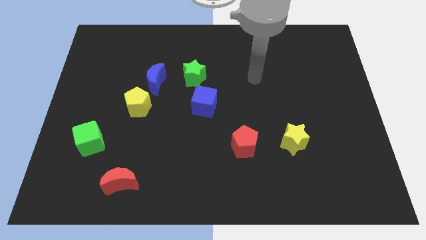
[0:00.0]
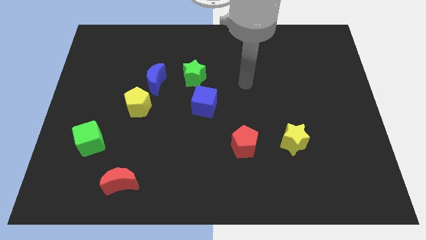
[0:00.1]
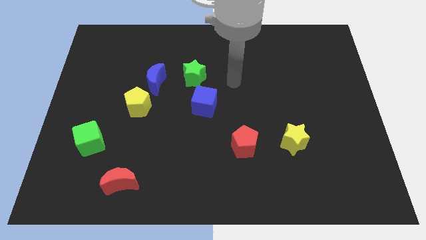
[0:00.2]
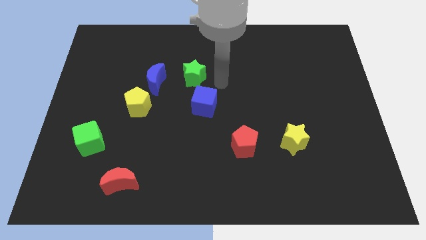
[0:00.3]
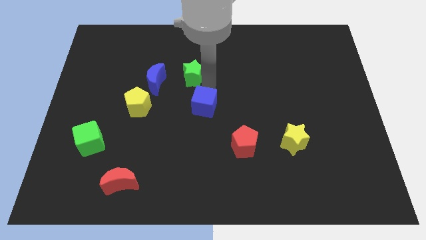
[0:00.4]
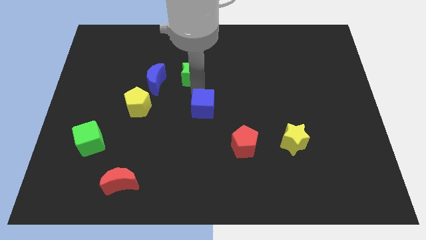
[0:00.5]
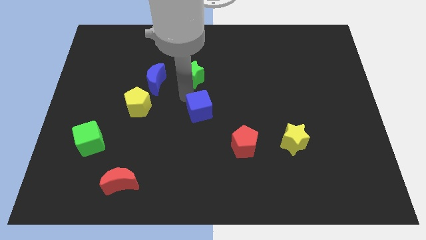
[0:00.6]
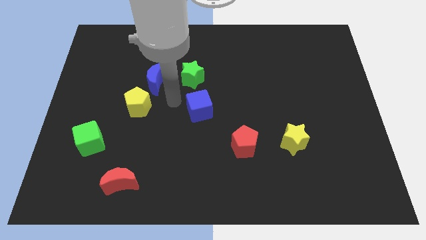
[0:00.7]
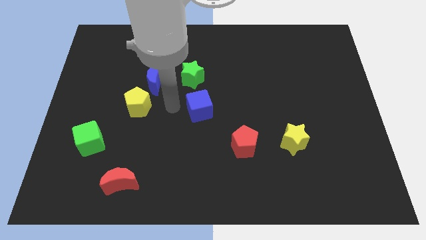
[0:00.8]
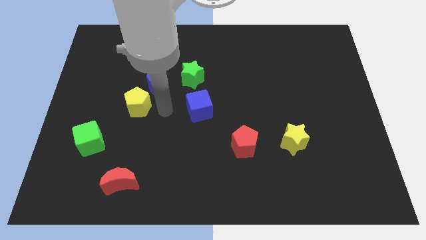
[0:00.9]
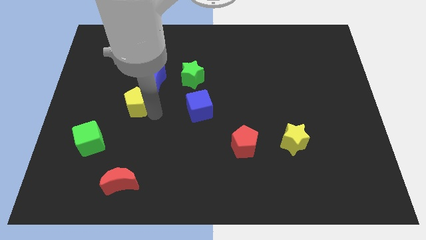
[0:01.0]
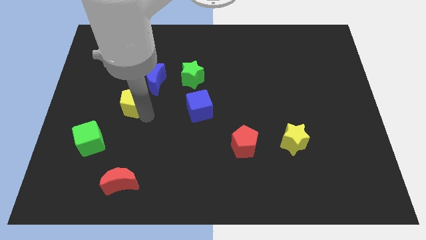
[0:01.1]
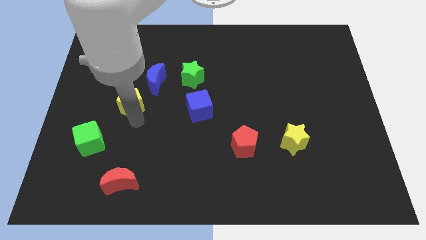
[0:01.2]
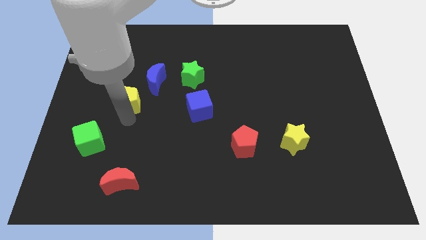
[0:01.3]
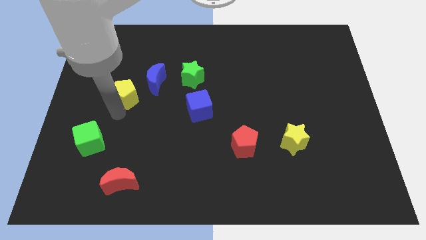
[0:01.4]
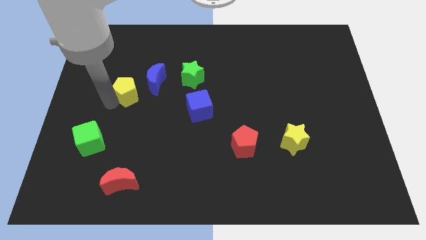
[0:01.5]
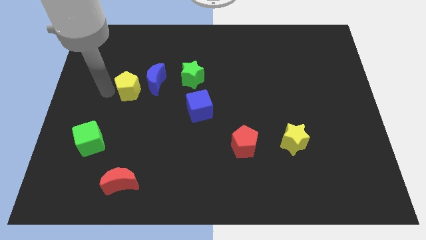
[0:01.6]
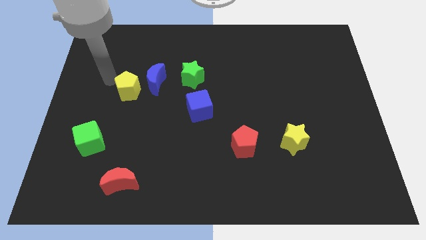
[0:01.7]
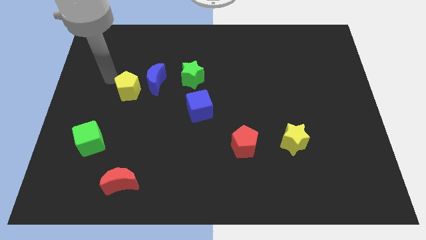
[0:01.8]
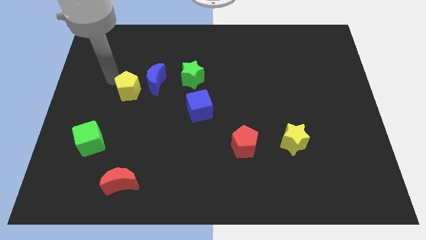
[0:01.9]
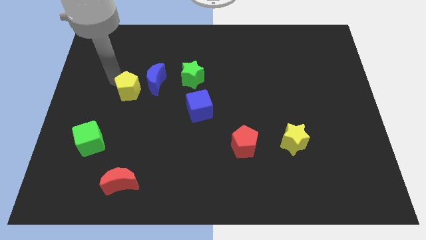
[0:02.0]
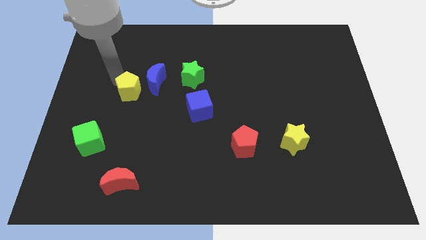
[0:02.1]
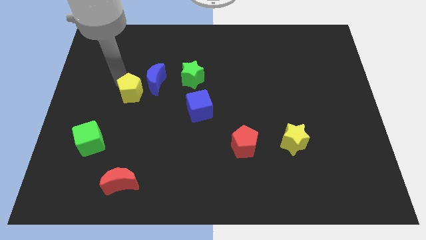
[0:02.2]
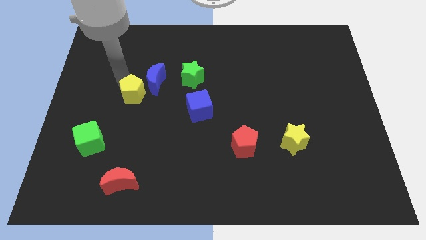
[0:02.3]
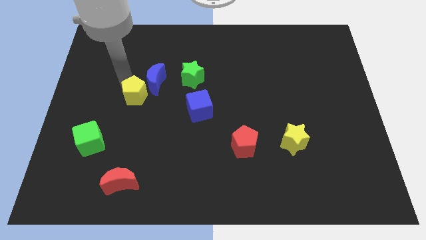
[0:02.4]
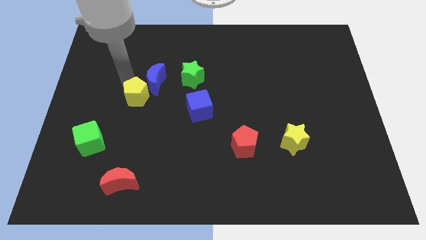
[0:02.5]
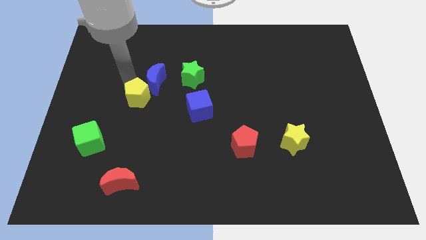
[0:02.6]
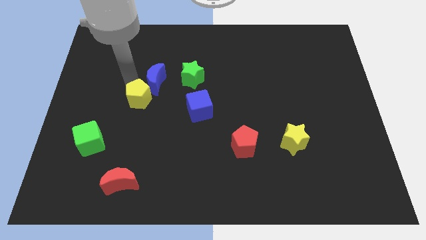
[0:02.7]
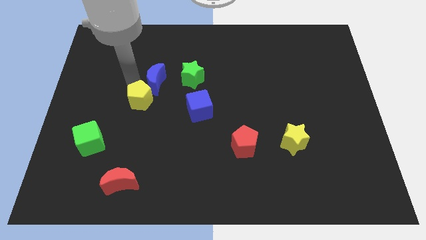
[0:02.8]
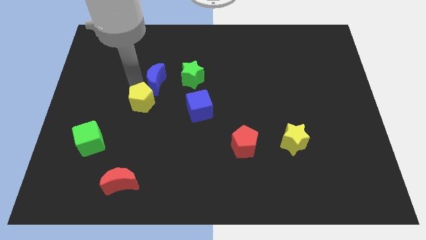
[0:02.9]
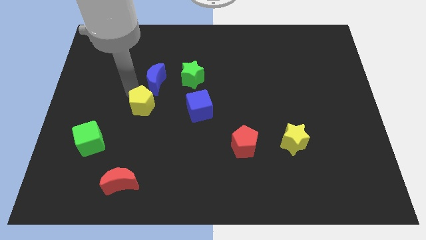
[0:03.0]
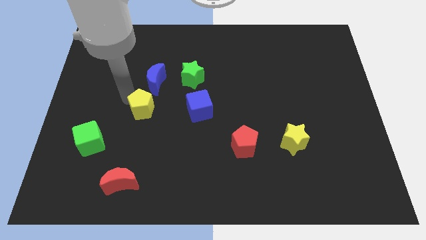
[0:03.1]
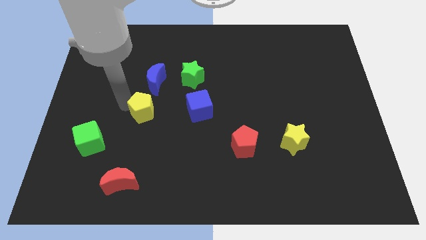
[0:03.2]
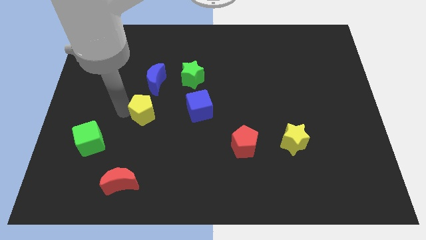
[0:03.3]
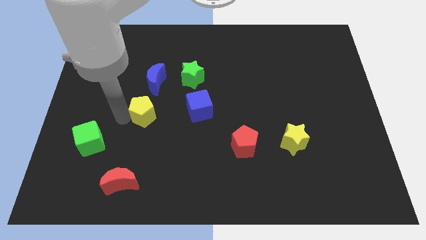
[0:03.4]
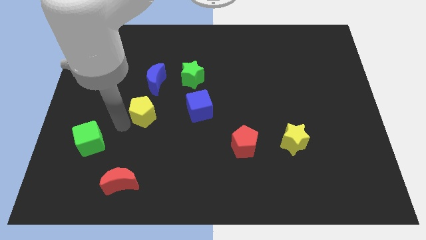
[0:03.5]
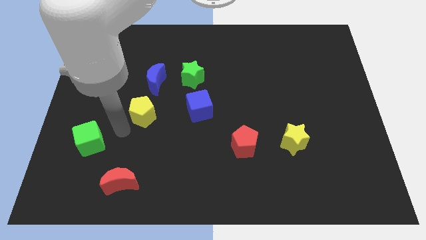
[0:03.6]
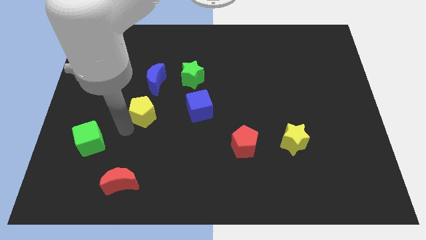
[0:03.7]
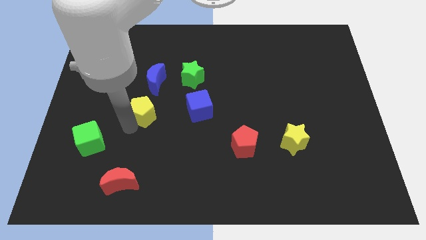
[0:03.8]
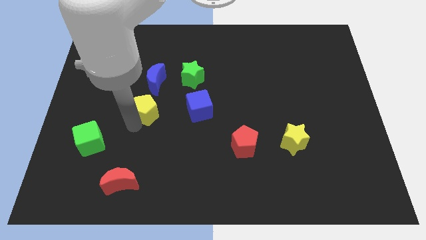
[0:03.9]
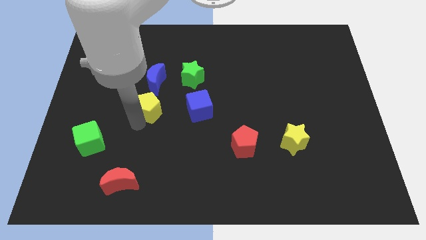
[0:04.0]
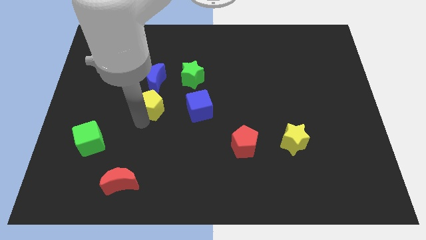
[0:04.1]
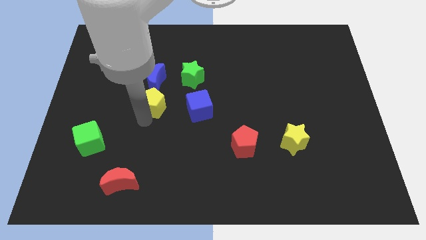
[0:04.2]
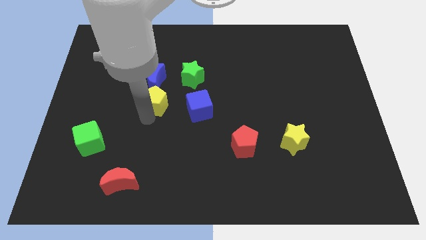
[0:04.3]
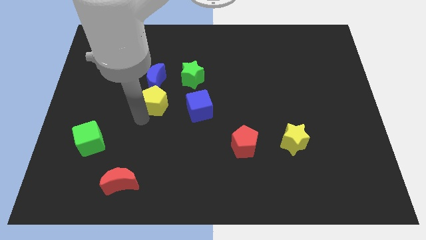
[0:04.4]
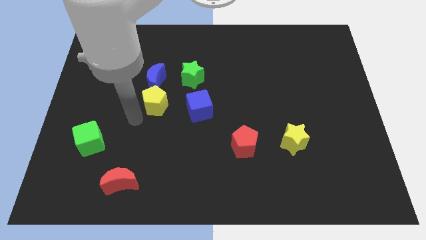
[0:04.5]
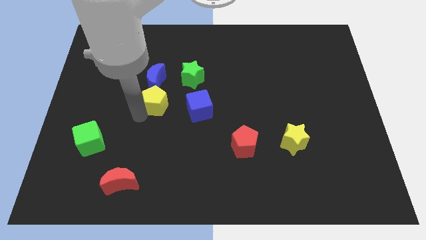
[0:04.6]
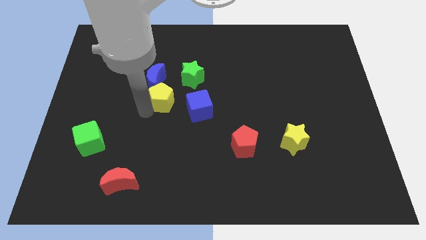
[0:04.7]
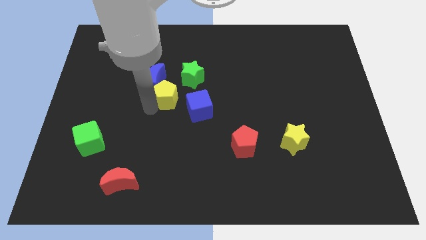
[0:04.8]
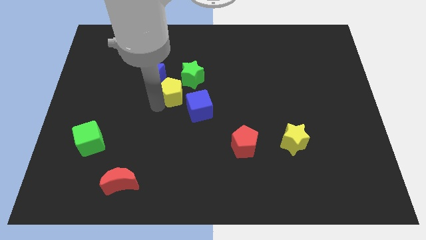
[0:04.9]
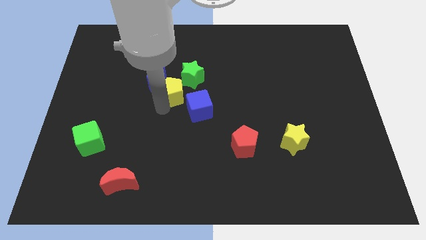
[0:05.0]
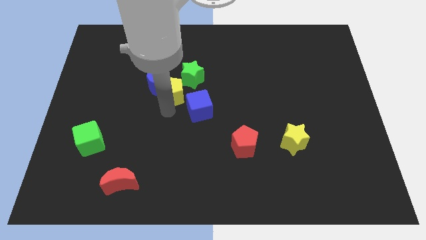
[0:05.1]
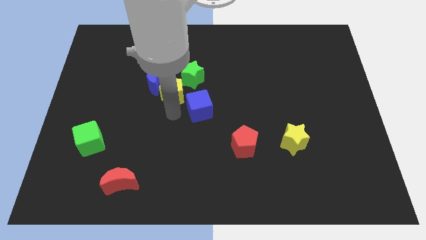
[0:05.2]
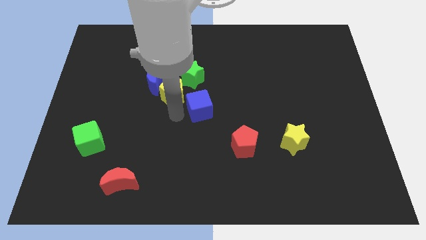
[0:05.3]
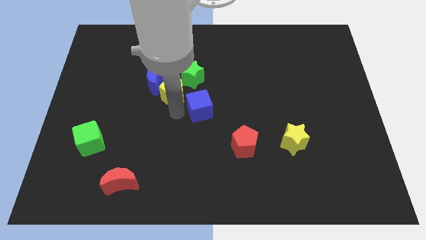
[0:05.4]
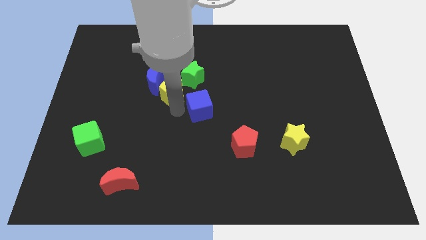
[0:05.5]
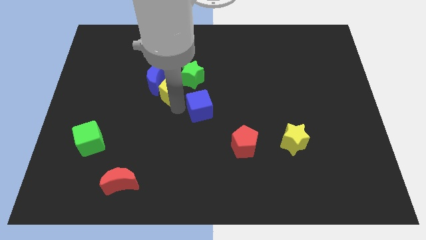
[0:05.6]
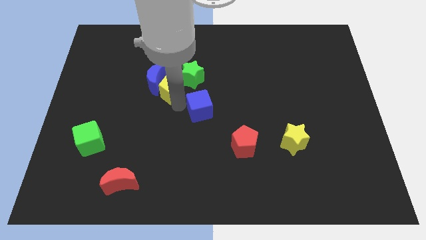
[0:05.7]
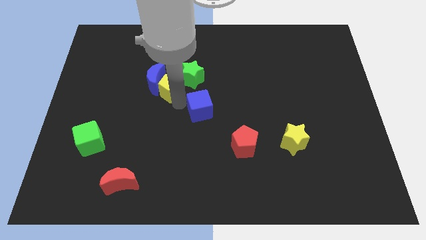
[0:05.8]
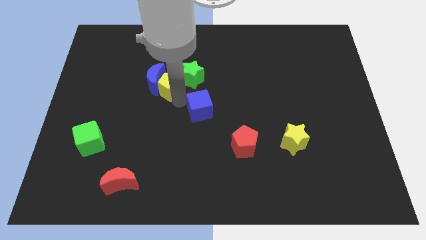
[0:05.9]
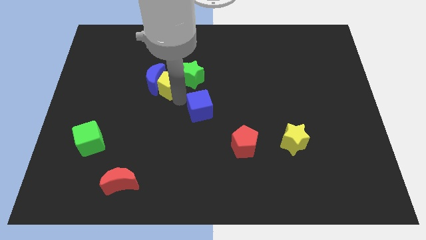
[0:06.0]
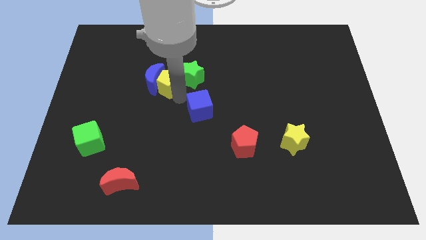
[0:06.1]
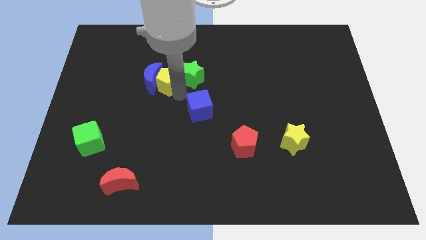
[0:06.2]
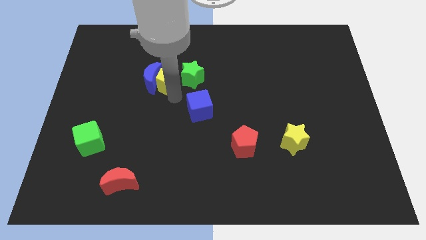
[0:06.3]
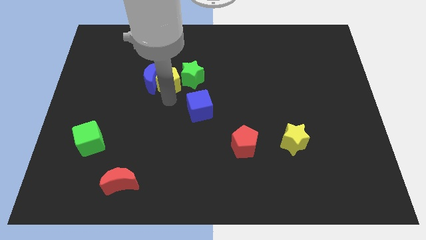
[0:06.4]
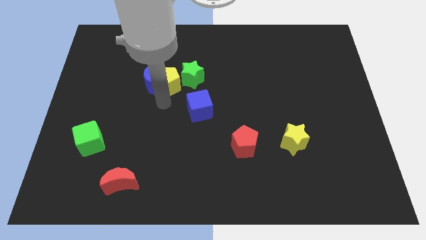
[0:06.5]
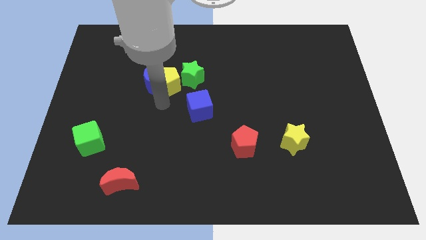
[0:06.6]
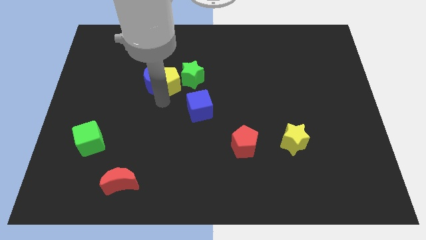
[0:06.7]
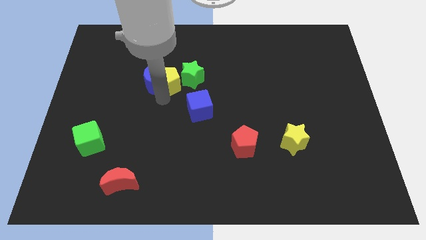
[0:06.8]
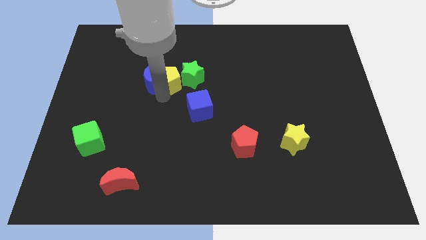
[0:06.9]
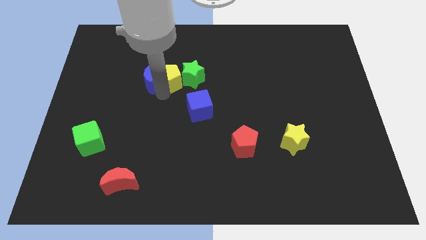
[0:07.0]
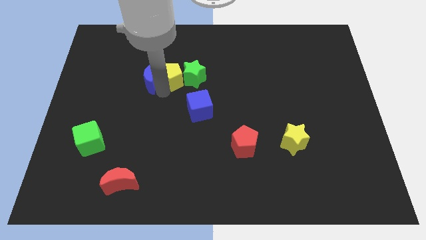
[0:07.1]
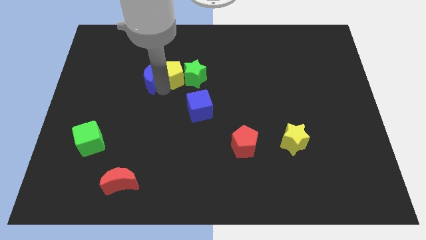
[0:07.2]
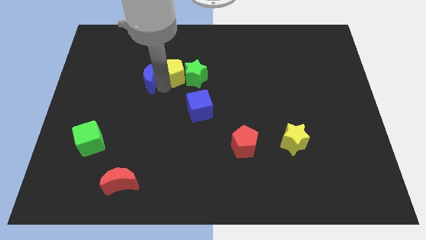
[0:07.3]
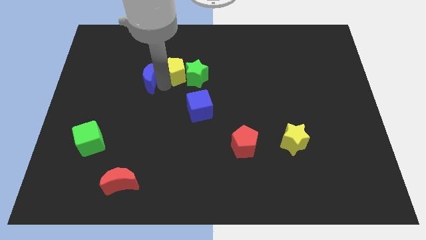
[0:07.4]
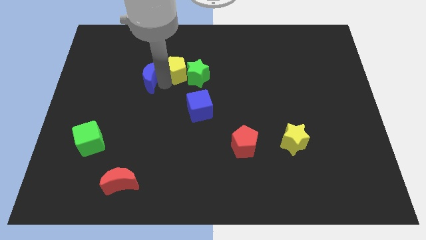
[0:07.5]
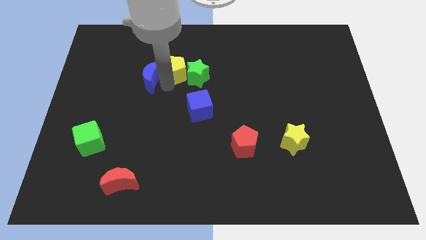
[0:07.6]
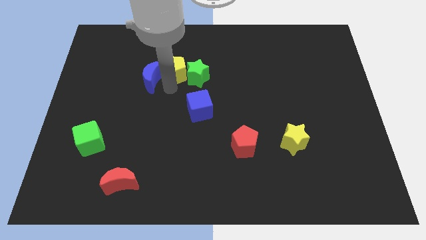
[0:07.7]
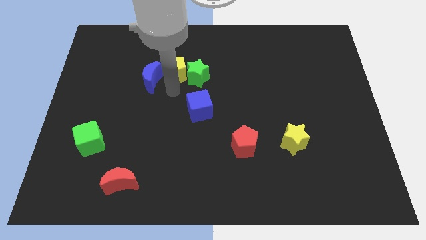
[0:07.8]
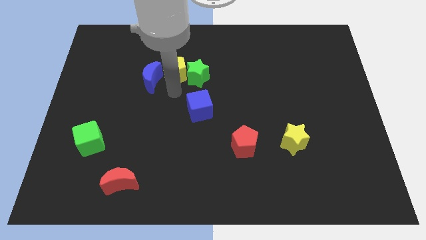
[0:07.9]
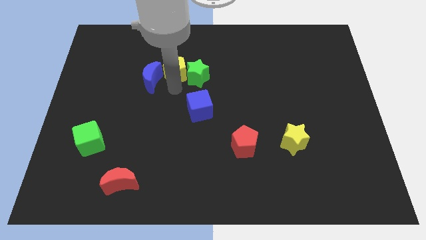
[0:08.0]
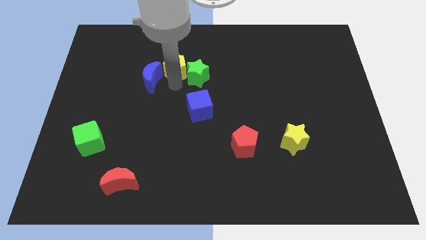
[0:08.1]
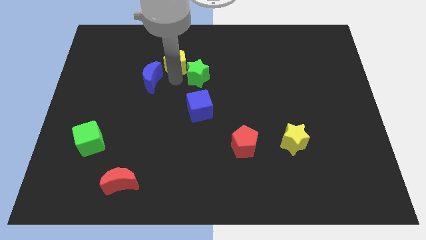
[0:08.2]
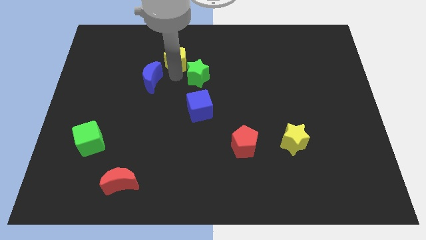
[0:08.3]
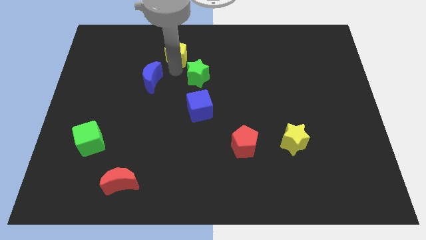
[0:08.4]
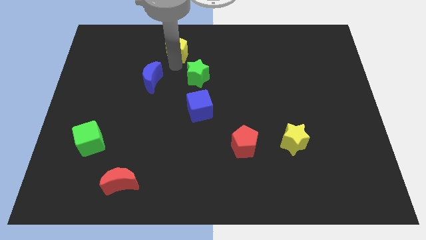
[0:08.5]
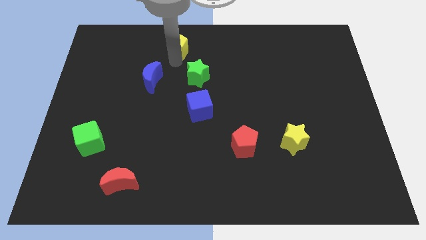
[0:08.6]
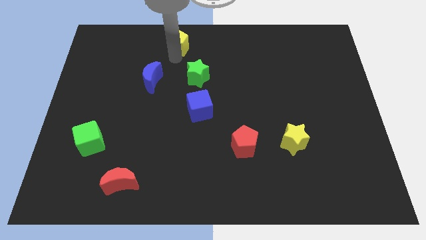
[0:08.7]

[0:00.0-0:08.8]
push the yellow pentagon to the top
